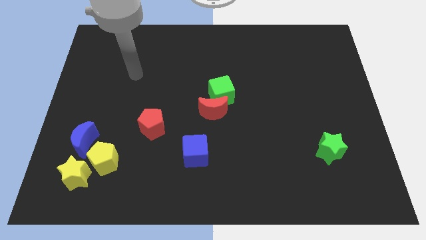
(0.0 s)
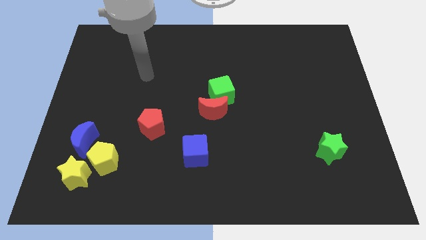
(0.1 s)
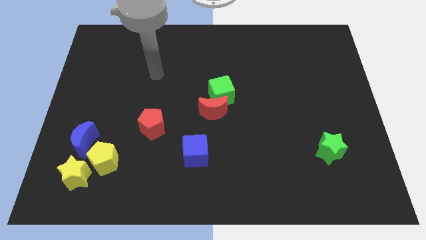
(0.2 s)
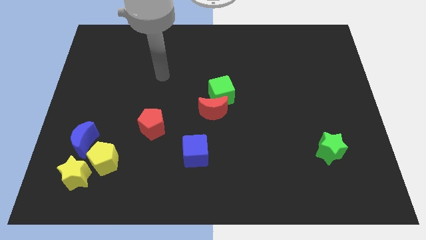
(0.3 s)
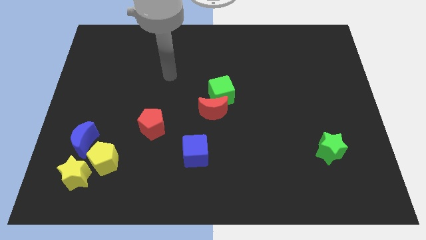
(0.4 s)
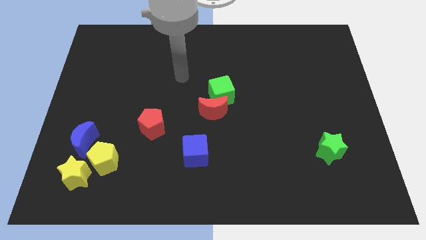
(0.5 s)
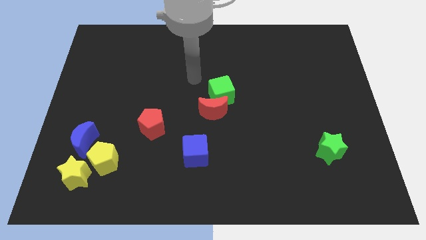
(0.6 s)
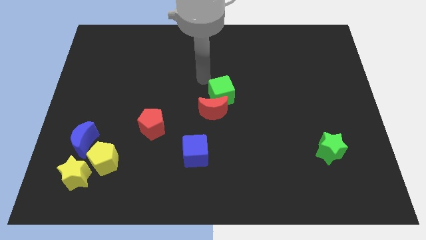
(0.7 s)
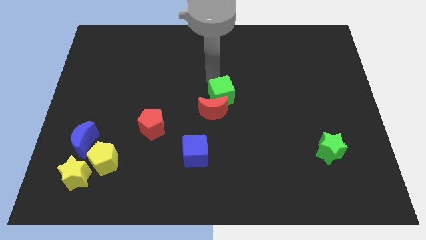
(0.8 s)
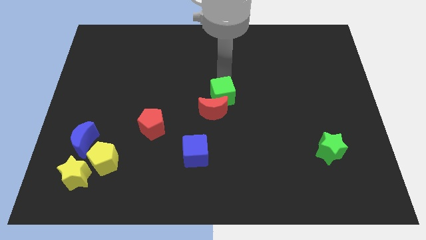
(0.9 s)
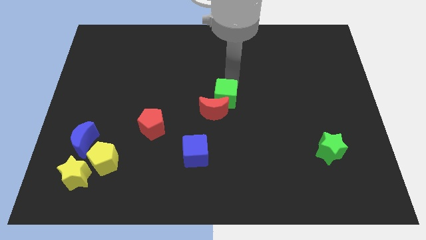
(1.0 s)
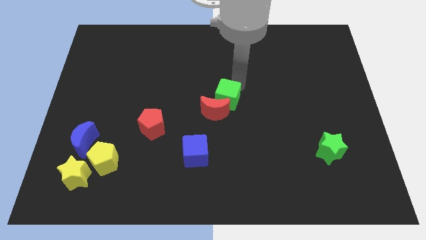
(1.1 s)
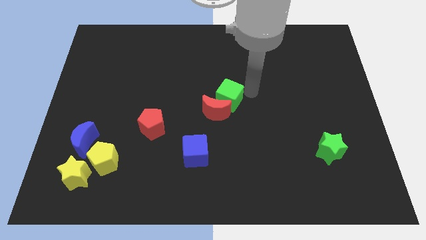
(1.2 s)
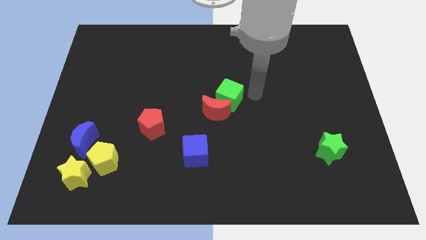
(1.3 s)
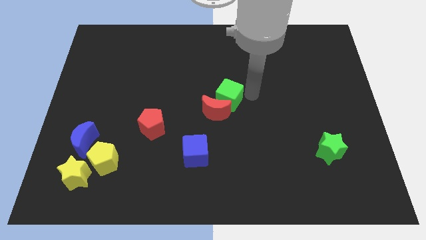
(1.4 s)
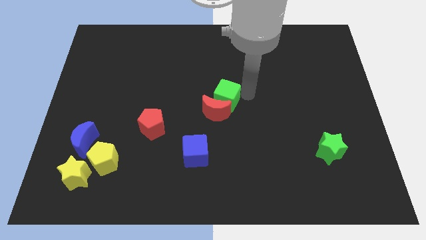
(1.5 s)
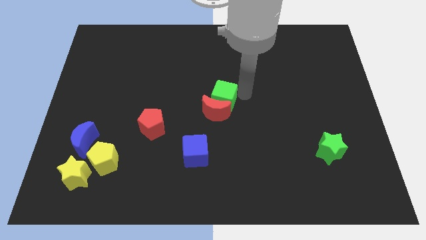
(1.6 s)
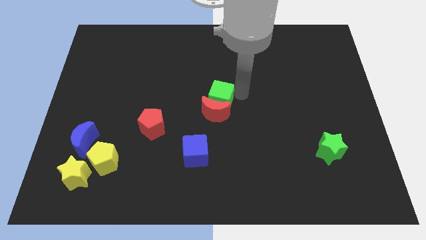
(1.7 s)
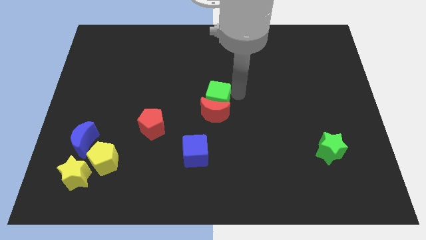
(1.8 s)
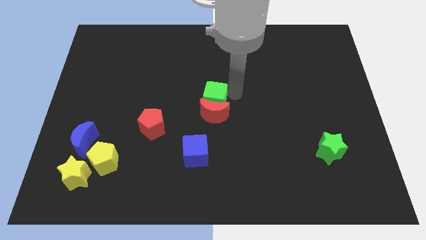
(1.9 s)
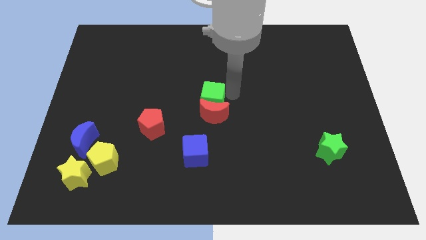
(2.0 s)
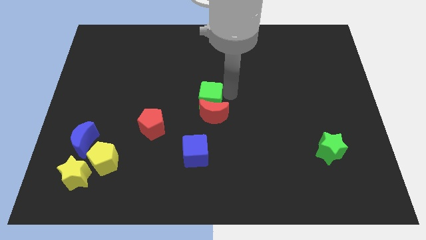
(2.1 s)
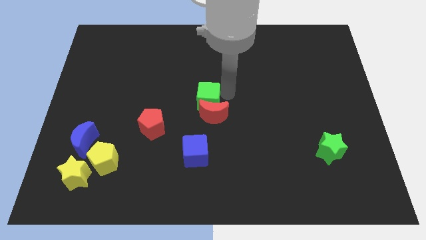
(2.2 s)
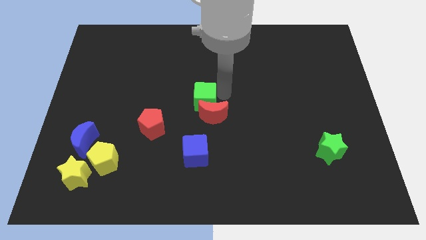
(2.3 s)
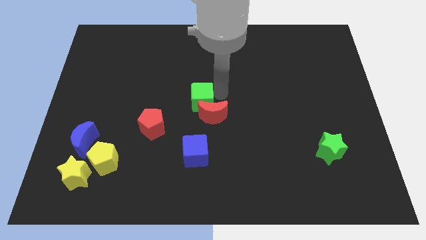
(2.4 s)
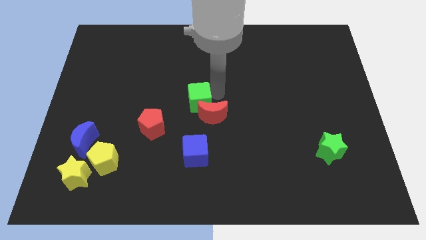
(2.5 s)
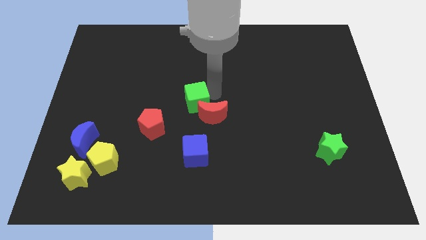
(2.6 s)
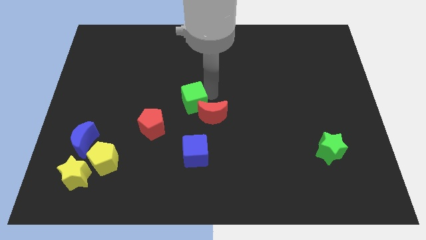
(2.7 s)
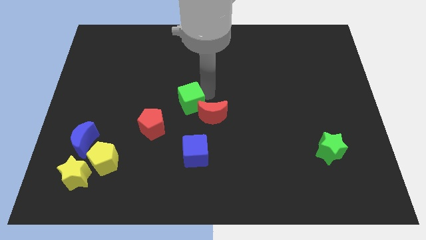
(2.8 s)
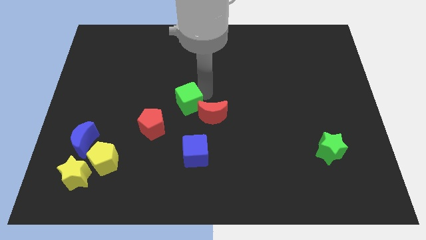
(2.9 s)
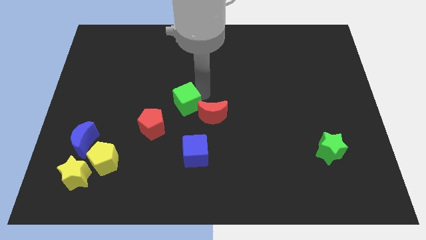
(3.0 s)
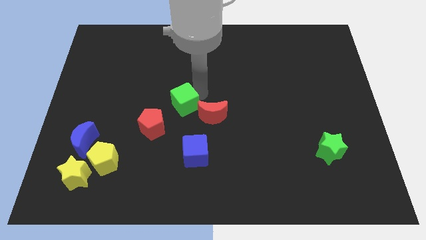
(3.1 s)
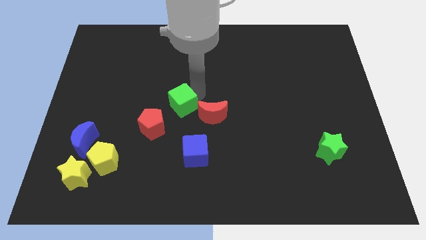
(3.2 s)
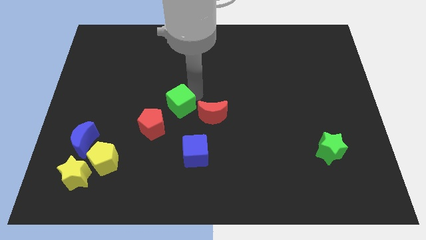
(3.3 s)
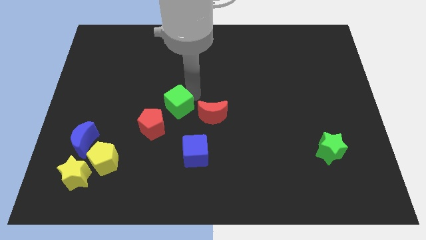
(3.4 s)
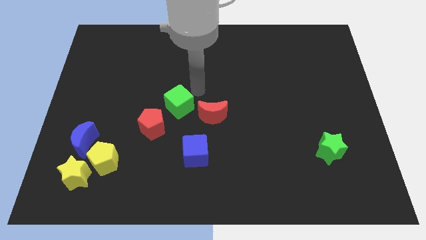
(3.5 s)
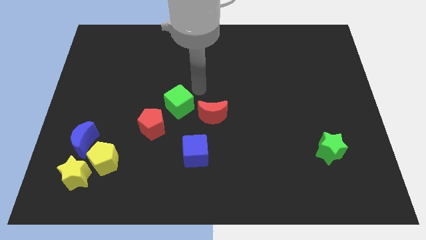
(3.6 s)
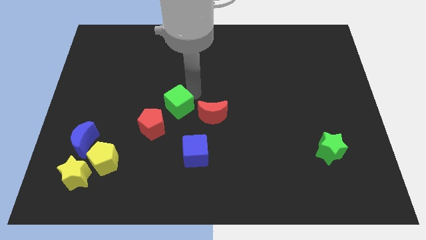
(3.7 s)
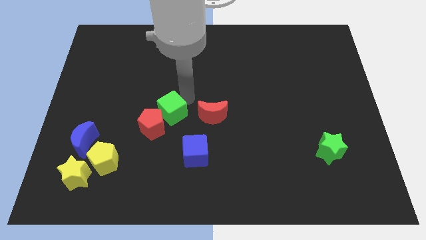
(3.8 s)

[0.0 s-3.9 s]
push the green cube next to the red pentagon

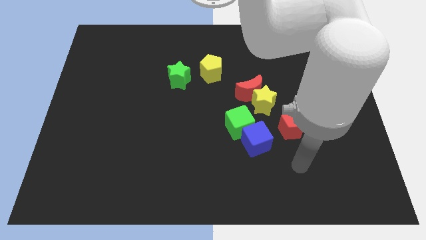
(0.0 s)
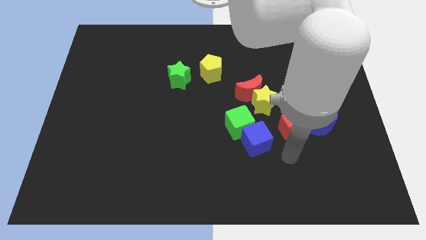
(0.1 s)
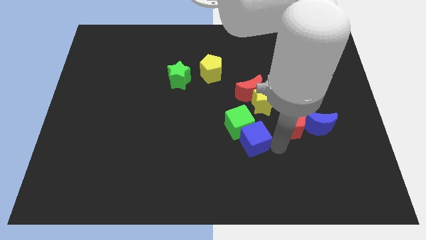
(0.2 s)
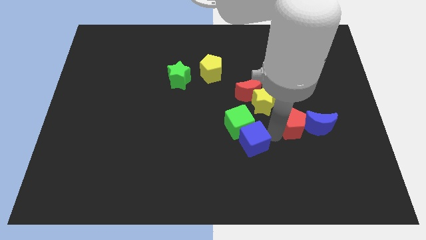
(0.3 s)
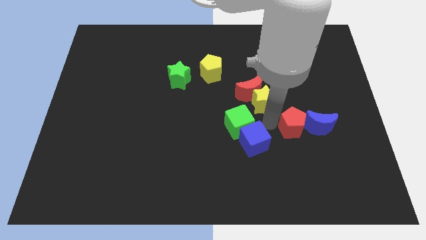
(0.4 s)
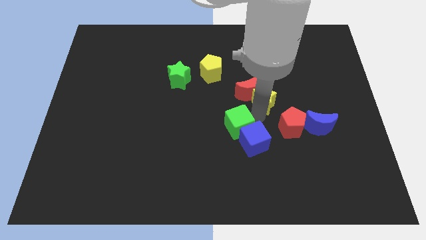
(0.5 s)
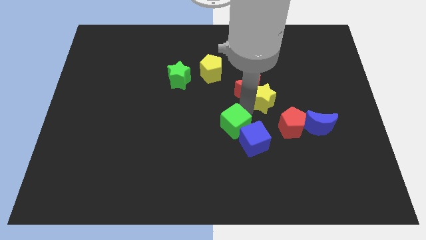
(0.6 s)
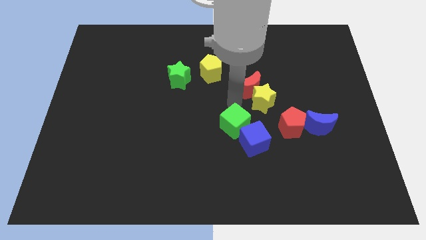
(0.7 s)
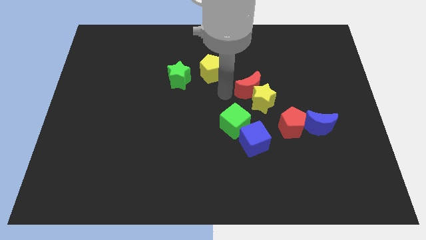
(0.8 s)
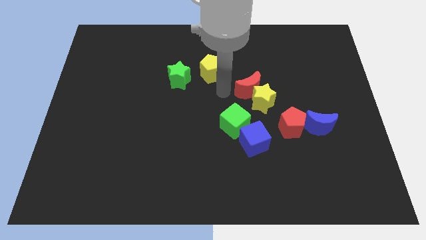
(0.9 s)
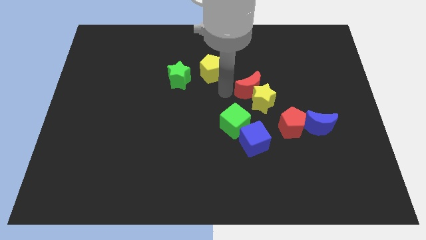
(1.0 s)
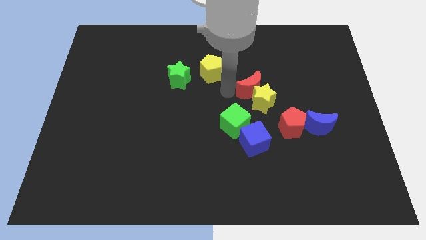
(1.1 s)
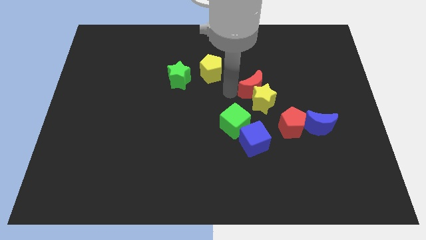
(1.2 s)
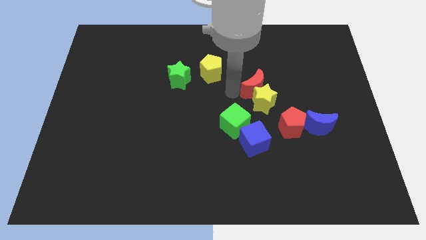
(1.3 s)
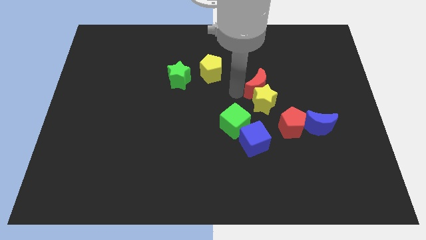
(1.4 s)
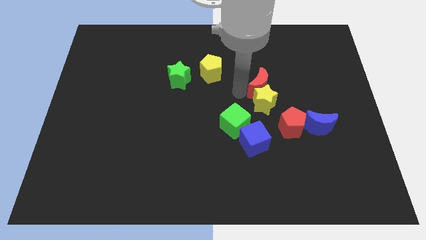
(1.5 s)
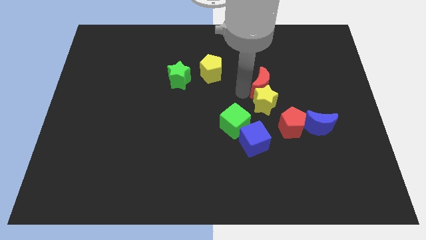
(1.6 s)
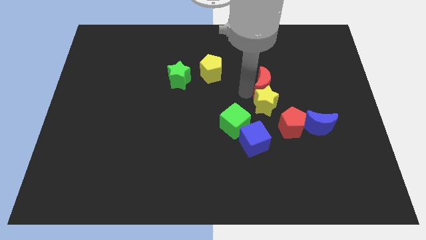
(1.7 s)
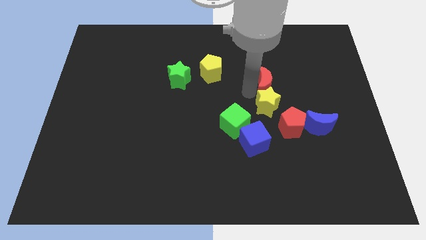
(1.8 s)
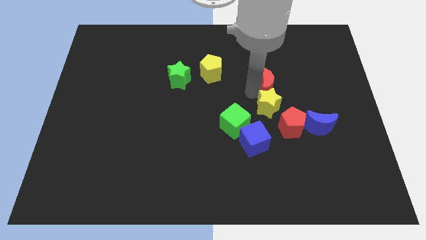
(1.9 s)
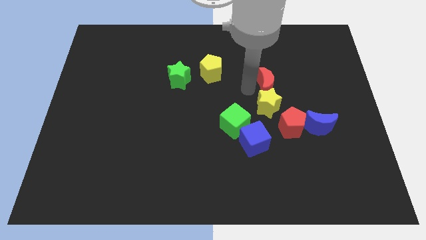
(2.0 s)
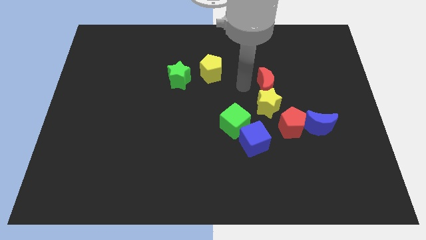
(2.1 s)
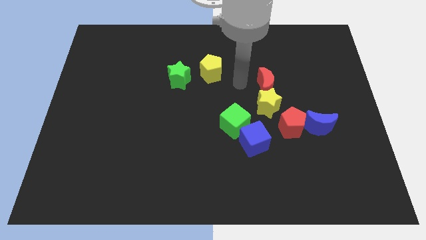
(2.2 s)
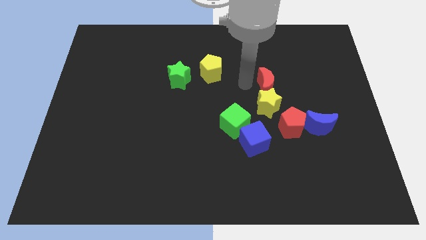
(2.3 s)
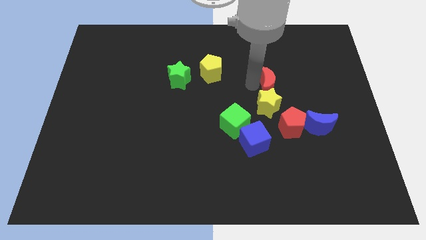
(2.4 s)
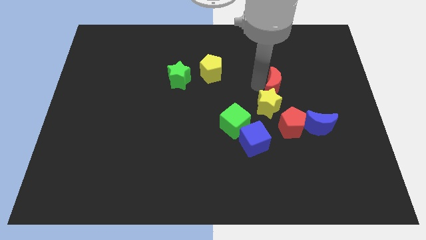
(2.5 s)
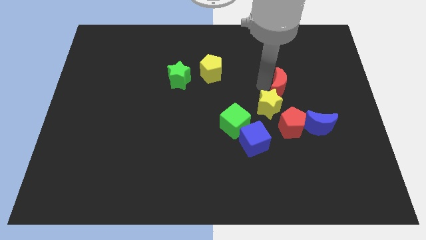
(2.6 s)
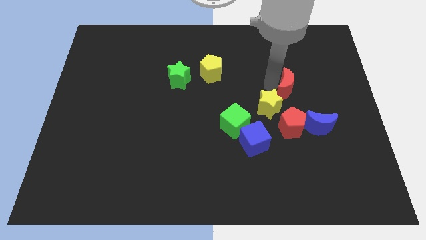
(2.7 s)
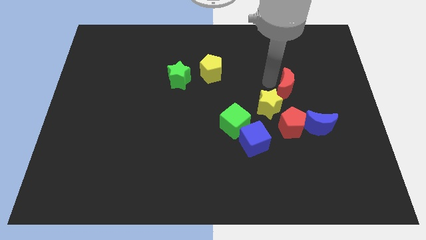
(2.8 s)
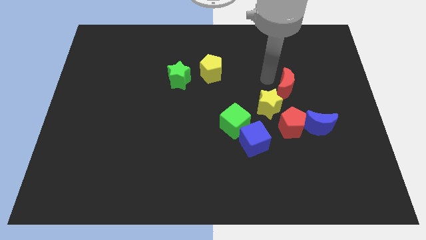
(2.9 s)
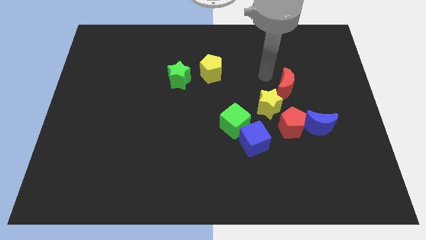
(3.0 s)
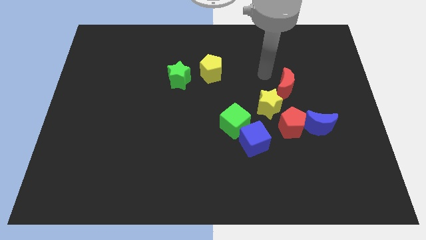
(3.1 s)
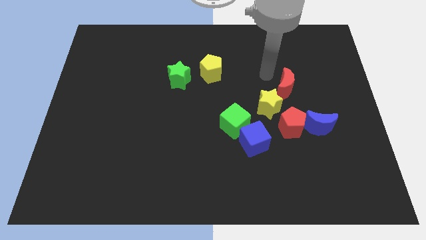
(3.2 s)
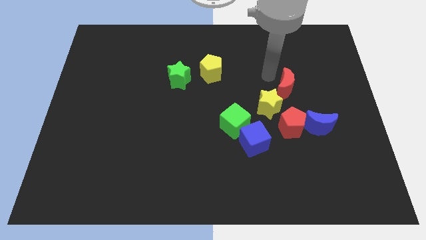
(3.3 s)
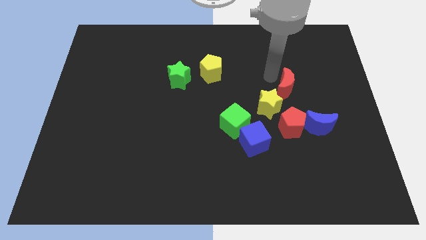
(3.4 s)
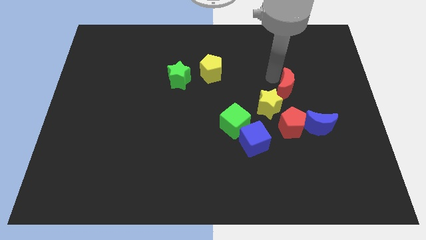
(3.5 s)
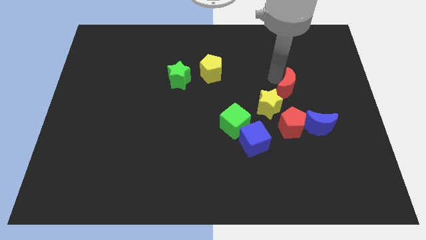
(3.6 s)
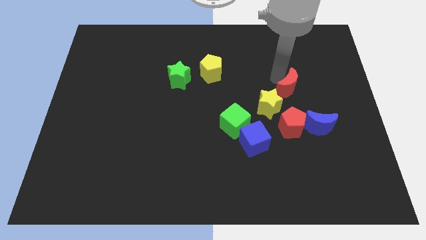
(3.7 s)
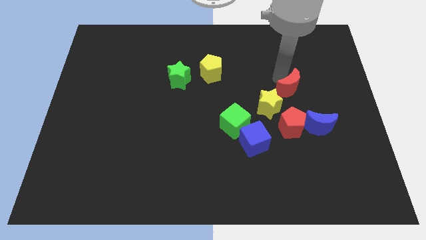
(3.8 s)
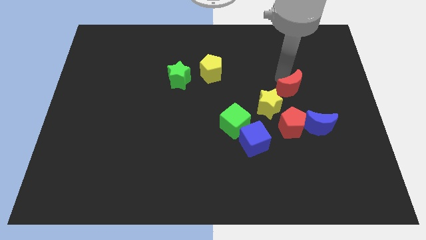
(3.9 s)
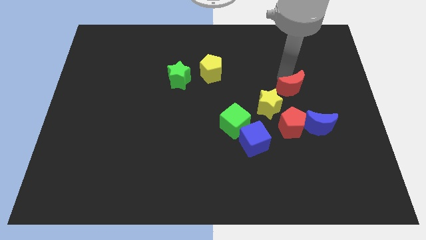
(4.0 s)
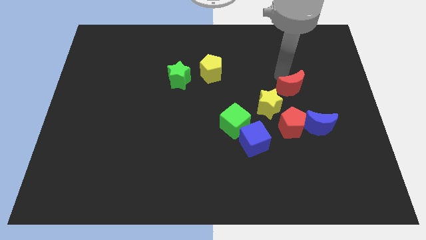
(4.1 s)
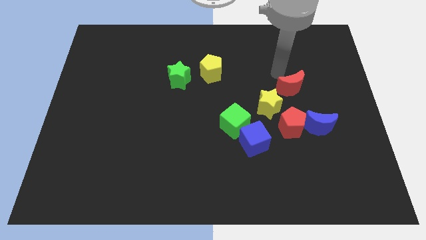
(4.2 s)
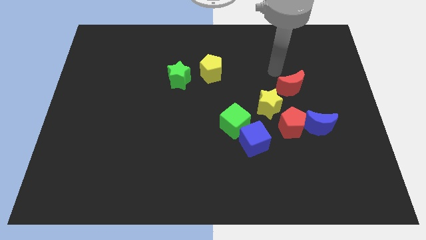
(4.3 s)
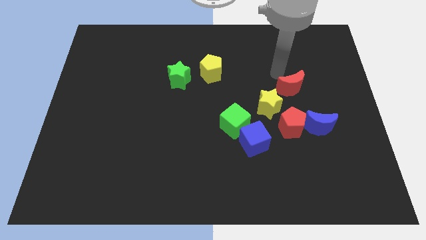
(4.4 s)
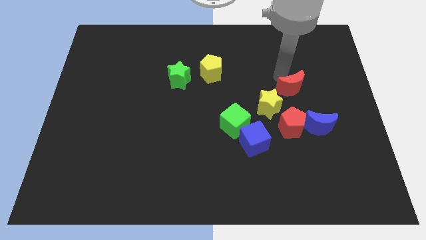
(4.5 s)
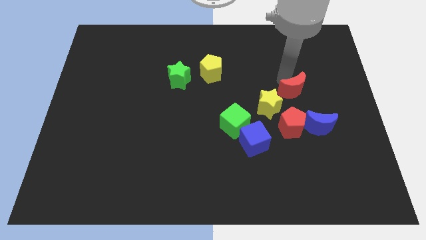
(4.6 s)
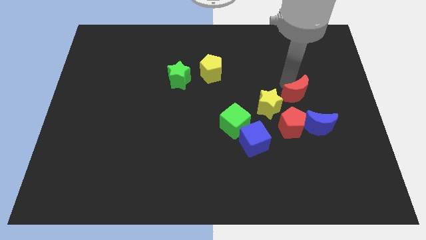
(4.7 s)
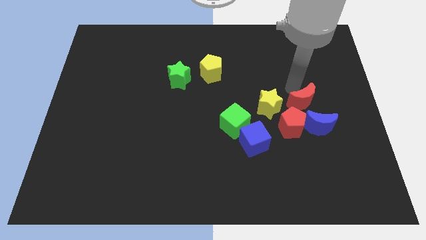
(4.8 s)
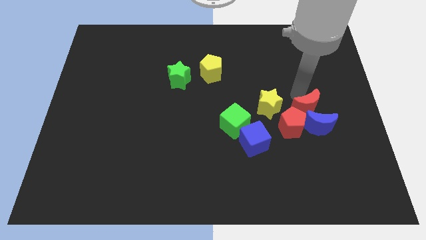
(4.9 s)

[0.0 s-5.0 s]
move the red moon towards the blue moon

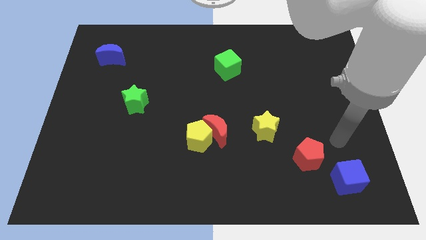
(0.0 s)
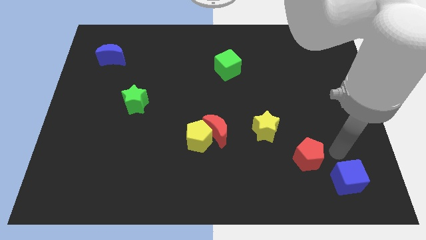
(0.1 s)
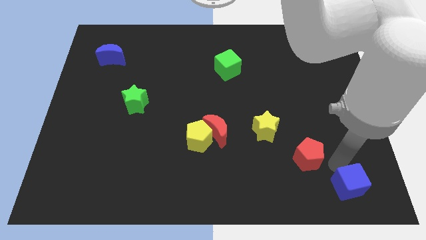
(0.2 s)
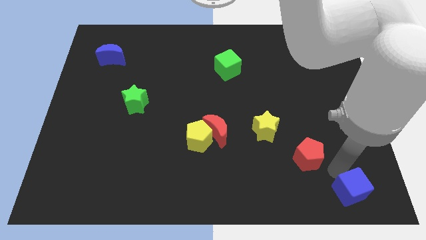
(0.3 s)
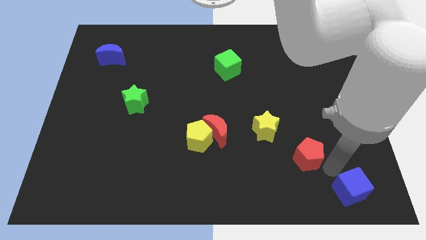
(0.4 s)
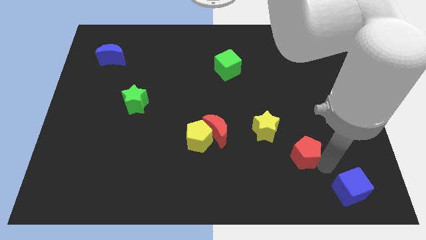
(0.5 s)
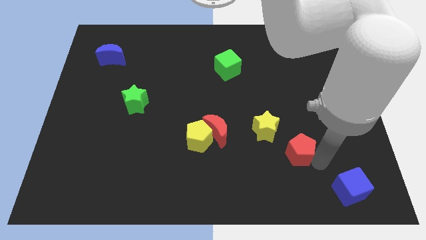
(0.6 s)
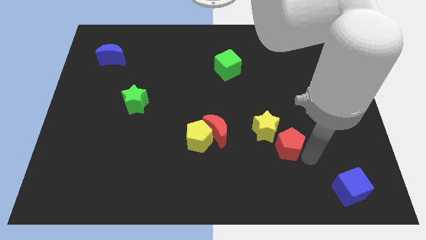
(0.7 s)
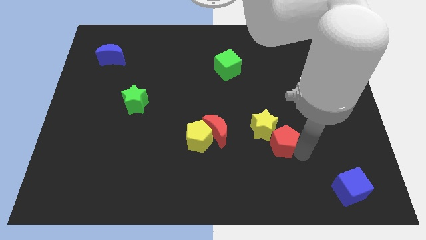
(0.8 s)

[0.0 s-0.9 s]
put the red pentagon towards the yellow star
